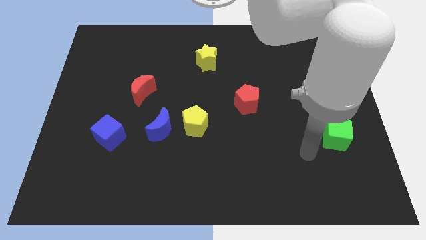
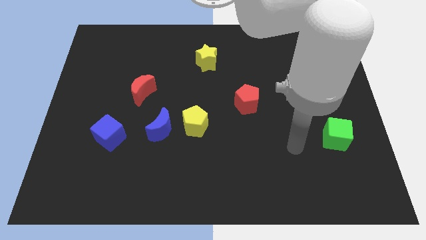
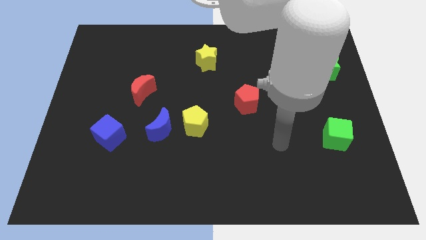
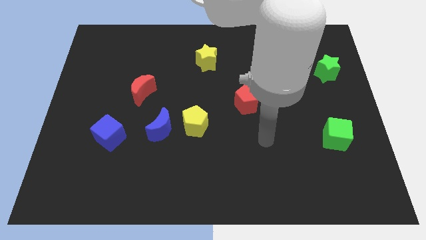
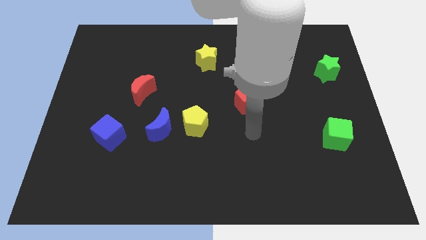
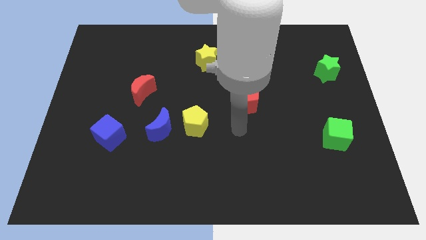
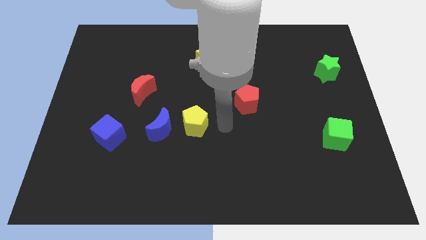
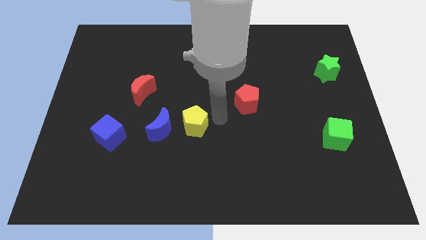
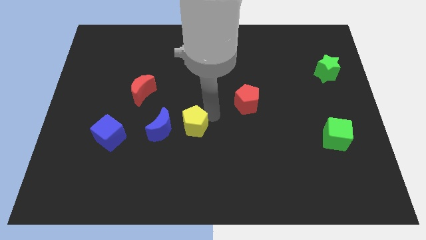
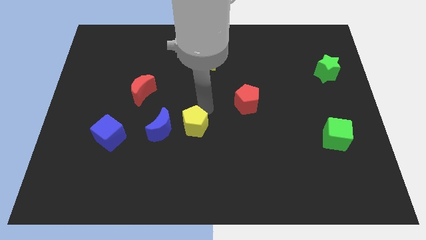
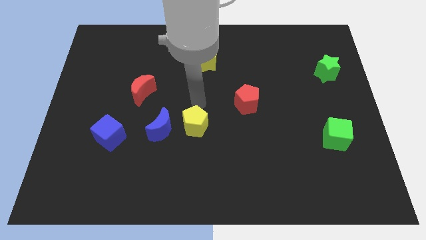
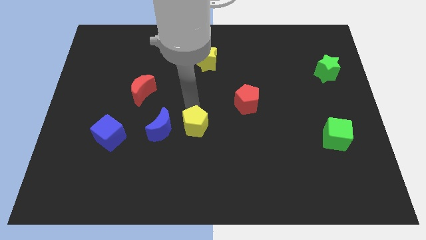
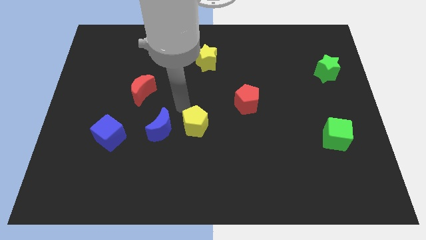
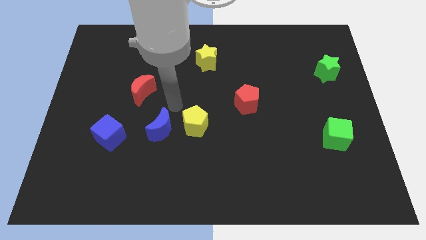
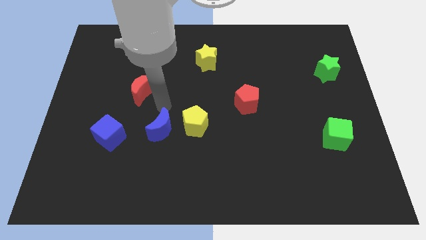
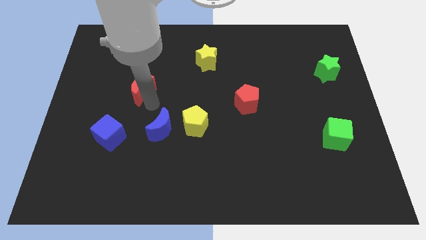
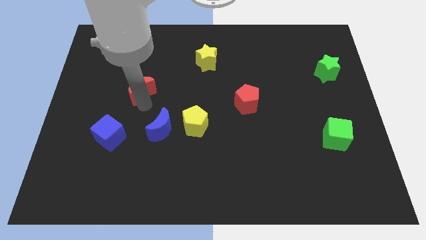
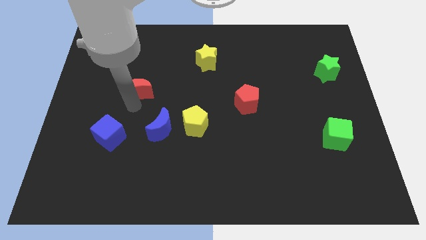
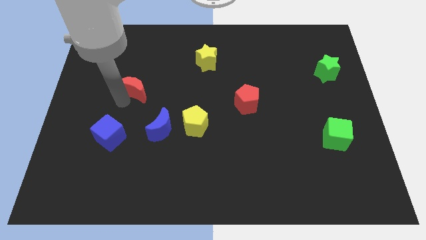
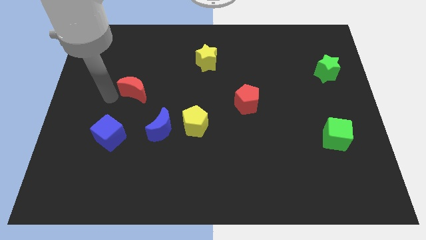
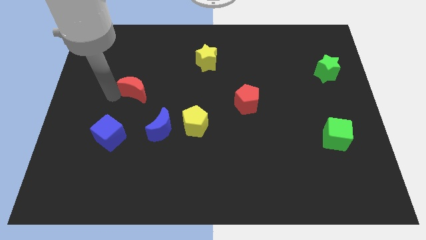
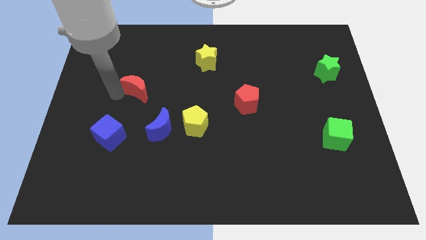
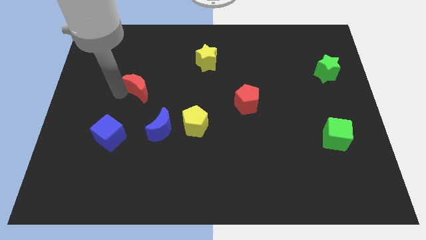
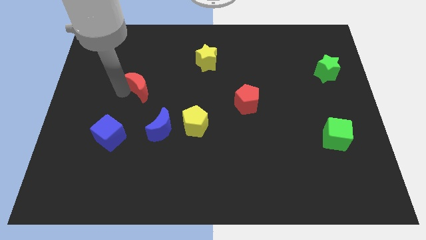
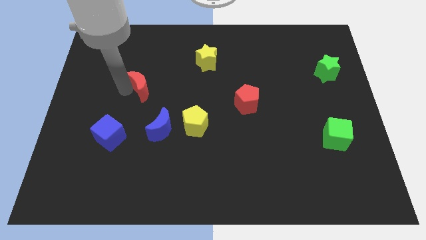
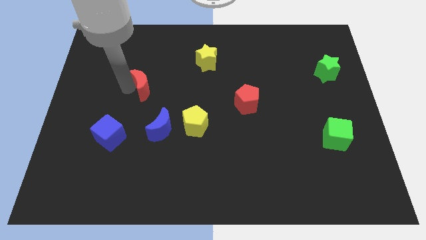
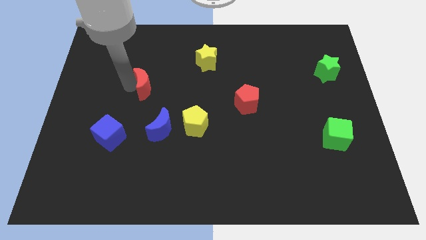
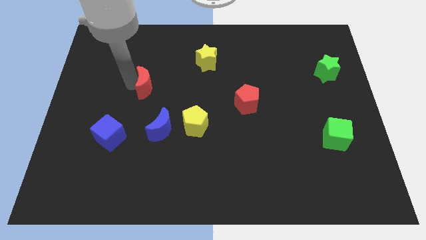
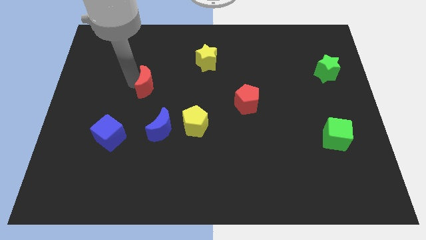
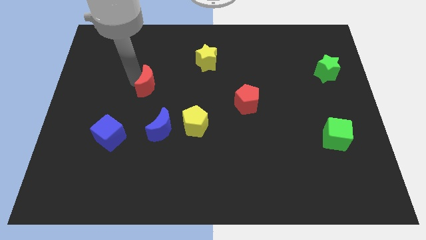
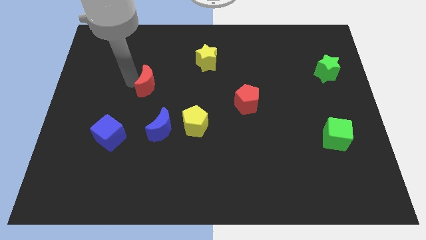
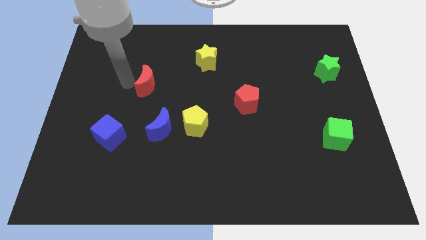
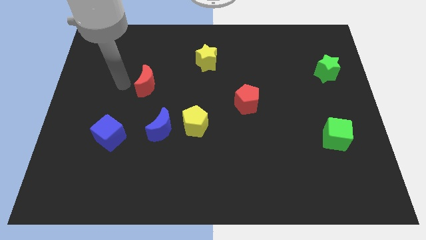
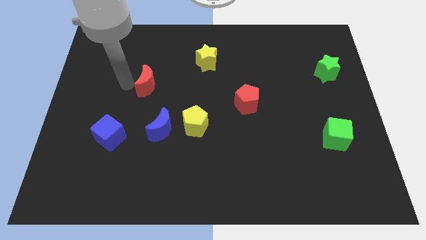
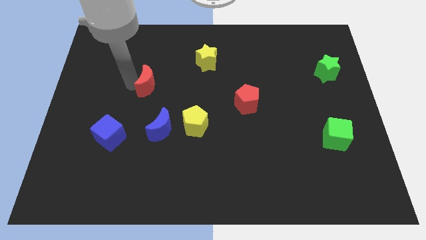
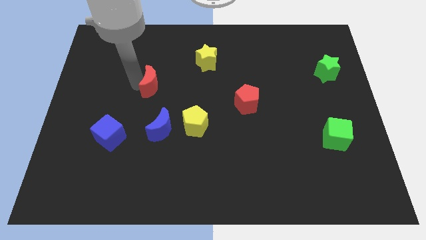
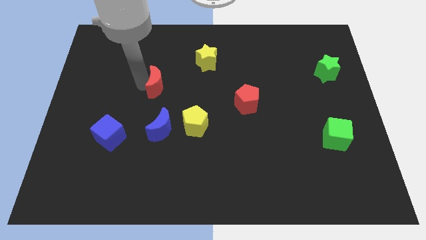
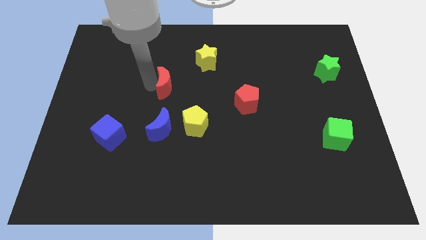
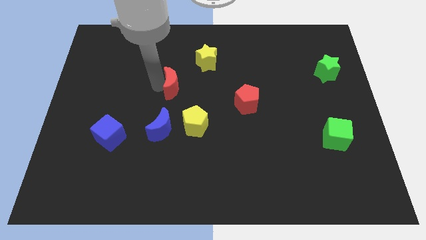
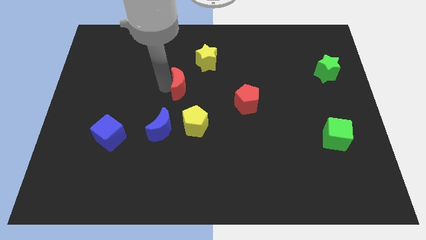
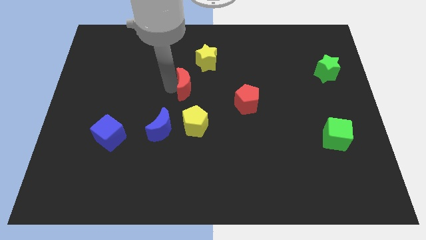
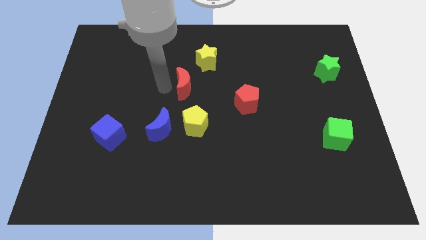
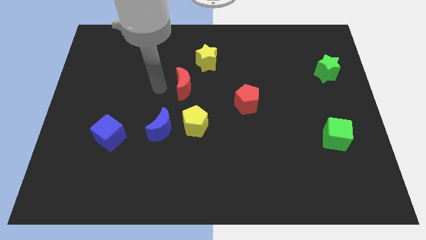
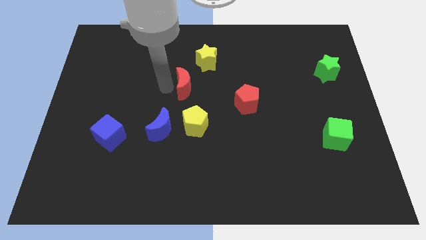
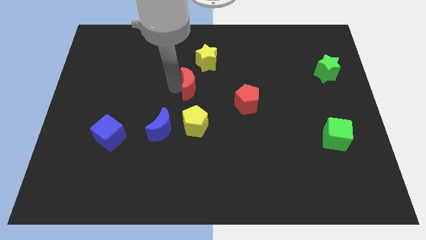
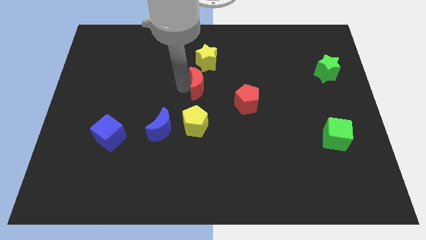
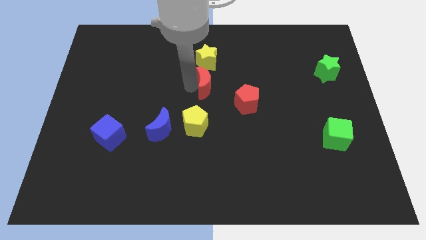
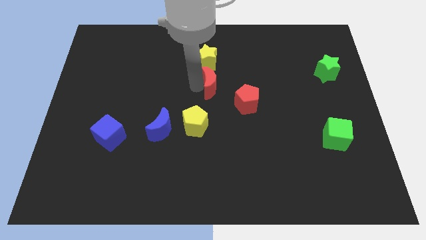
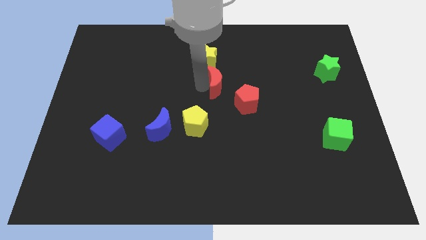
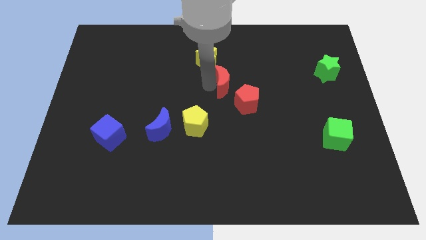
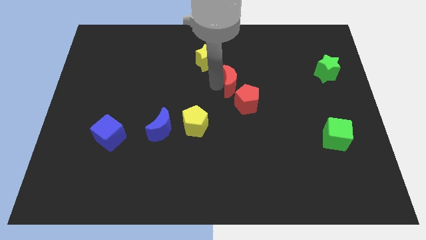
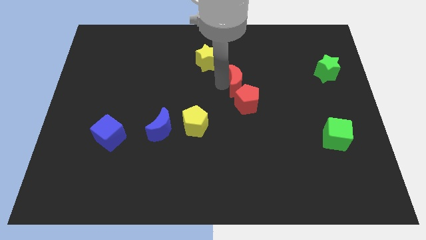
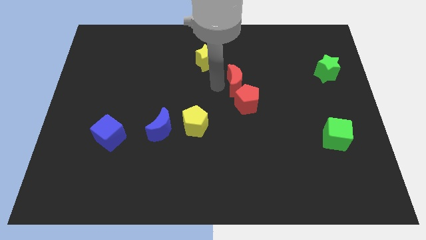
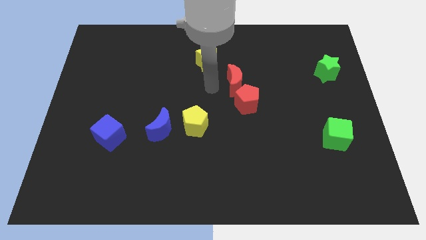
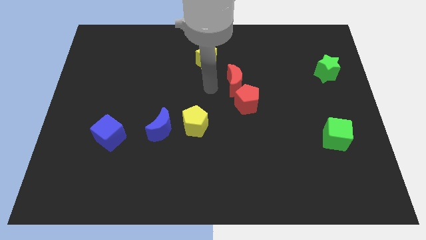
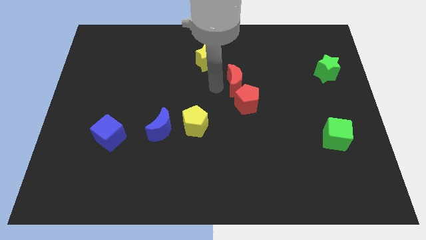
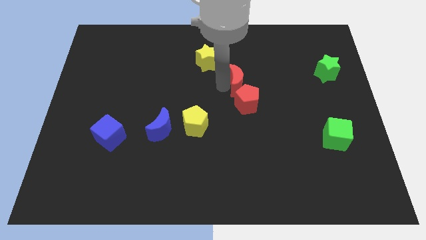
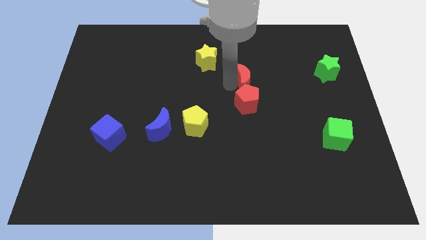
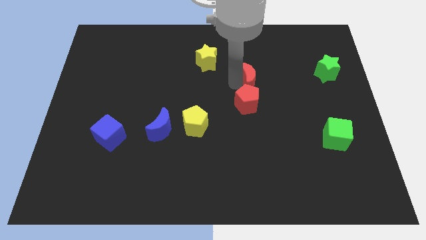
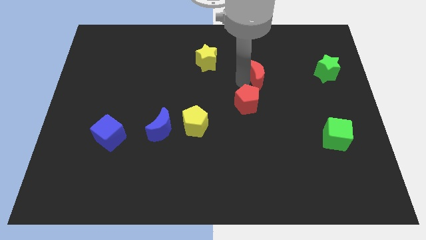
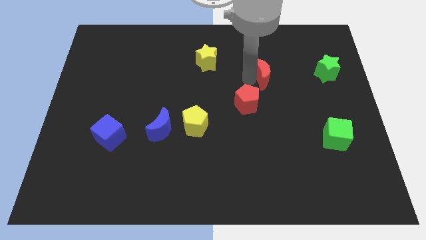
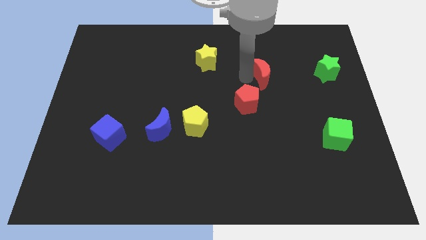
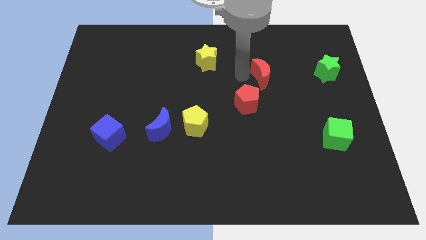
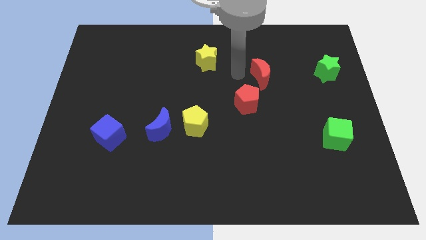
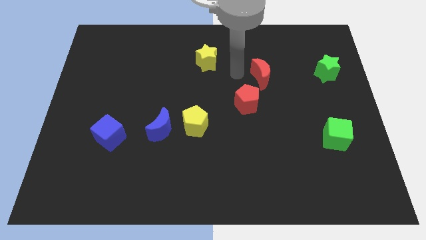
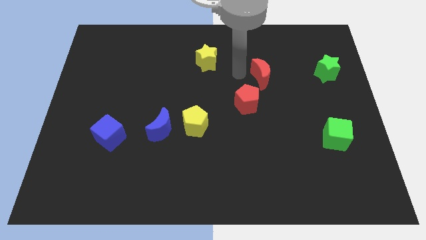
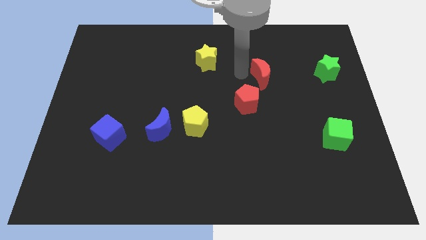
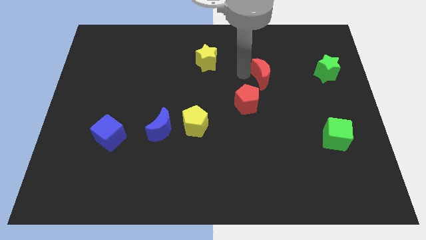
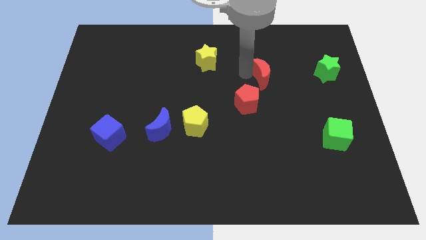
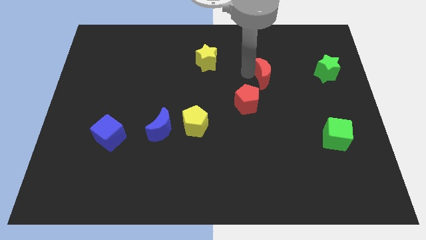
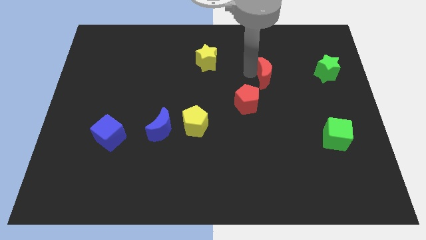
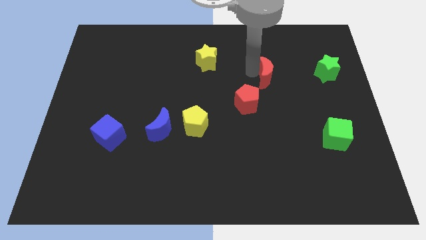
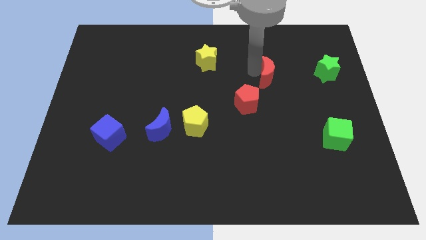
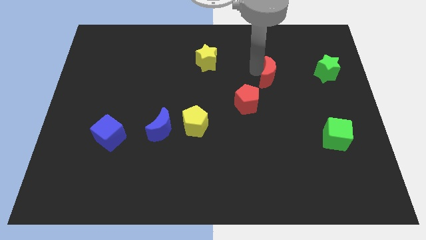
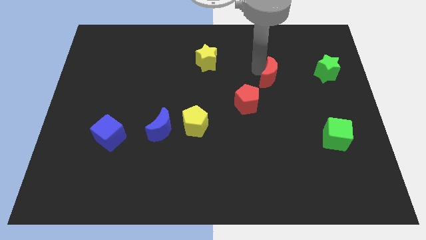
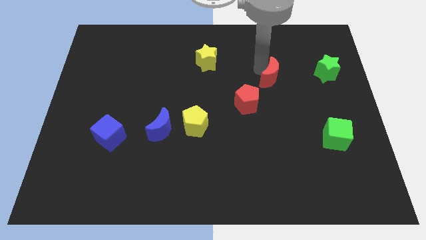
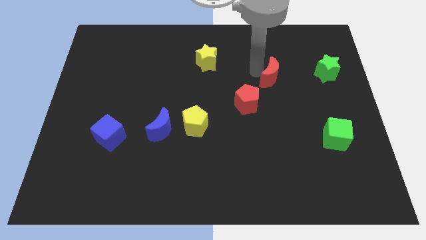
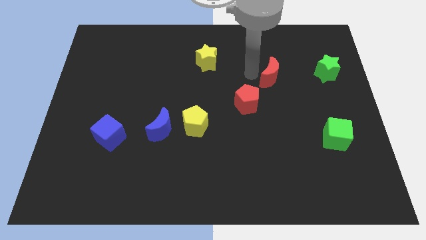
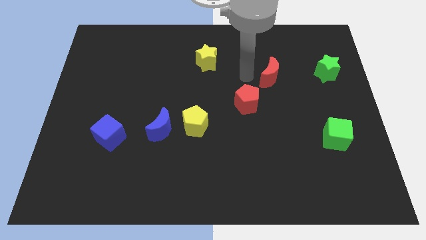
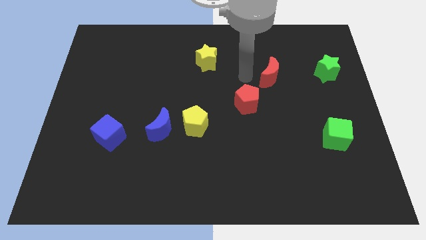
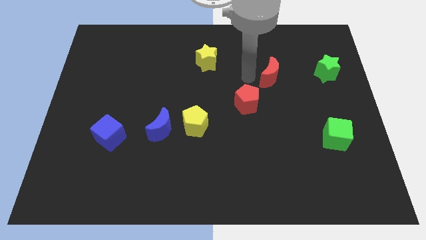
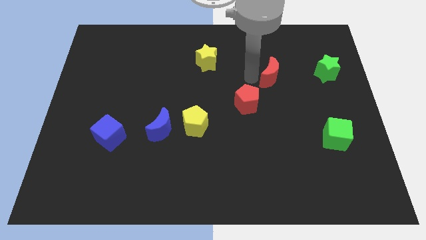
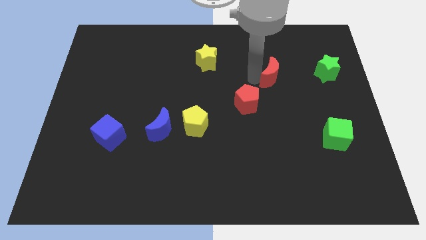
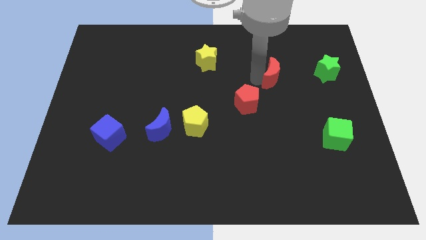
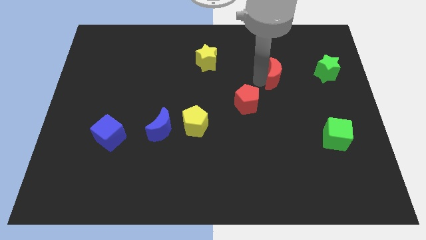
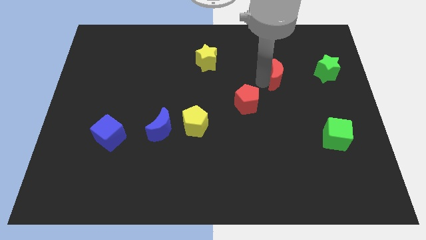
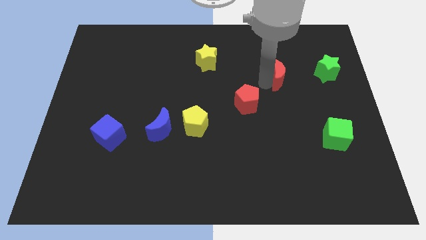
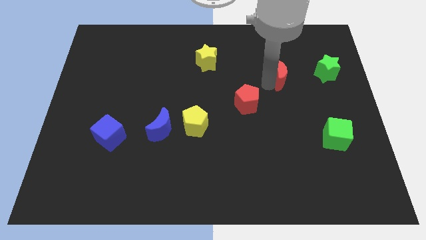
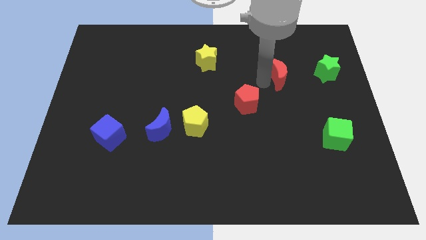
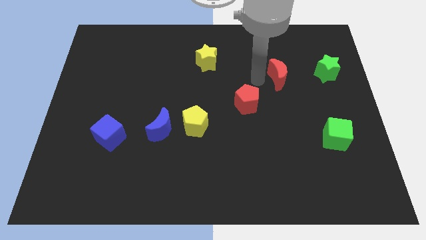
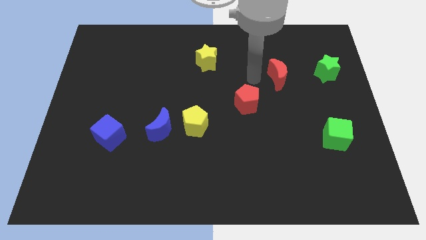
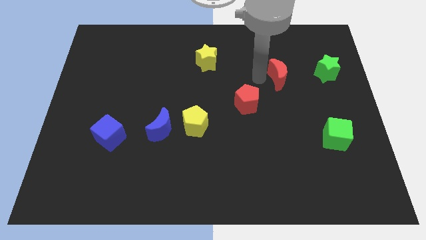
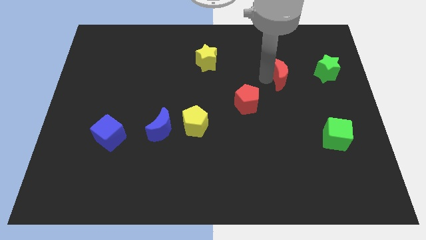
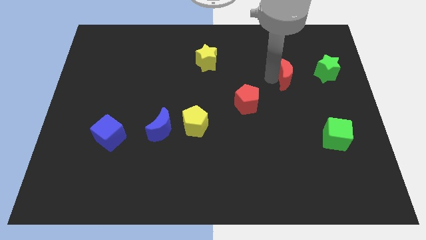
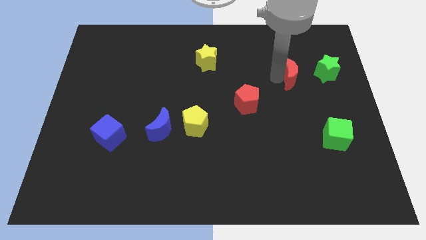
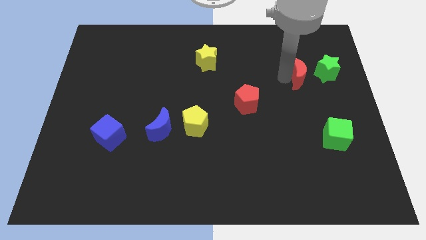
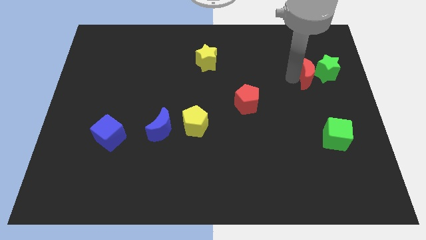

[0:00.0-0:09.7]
push the red moon to the green star
